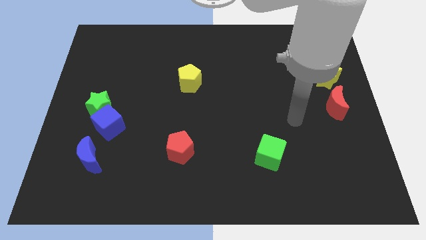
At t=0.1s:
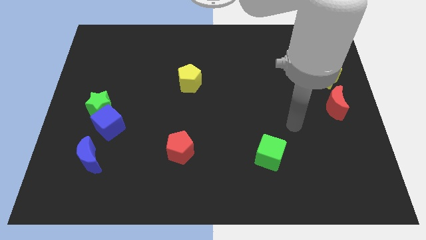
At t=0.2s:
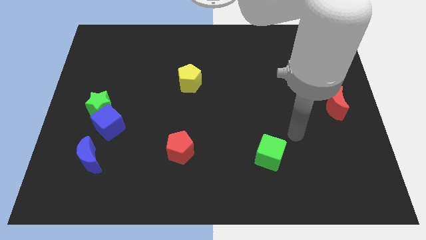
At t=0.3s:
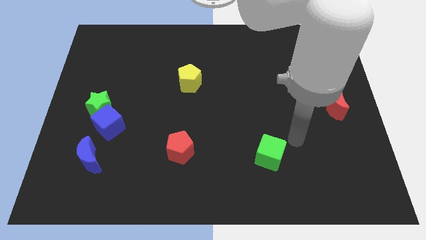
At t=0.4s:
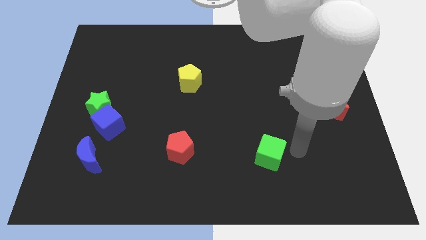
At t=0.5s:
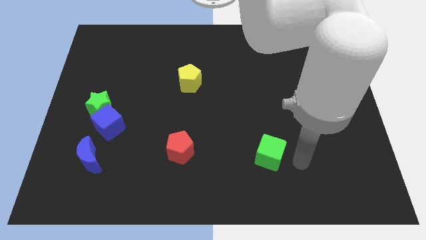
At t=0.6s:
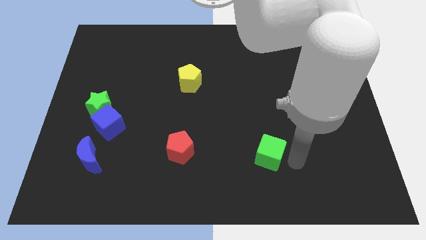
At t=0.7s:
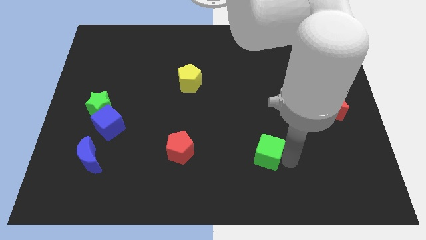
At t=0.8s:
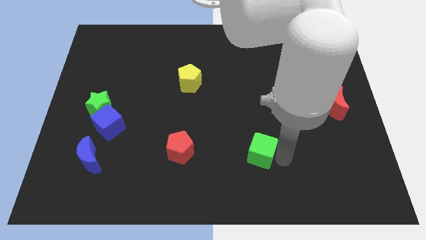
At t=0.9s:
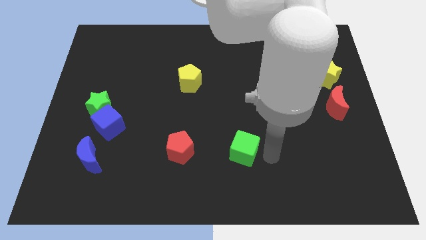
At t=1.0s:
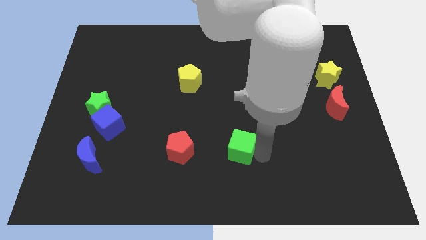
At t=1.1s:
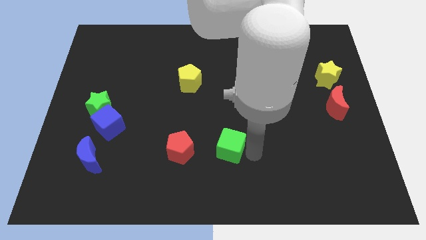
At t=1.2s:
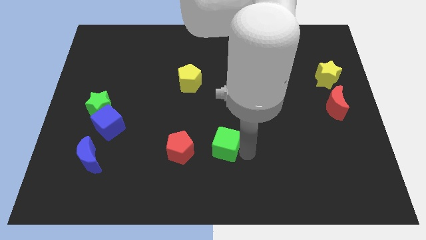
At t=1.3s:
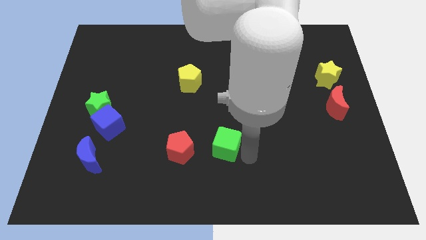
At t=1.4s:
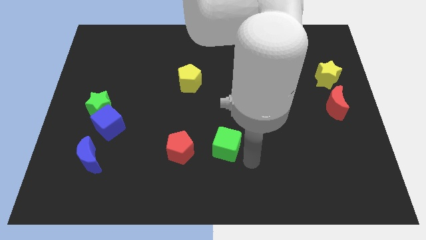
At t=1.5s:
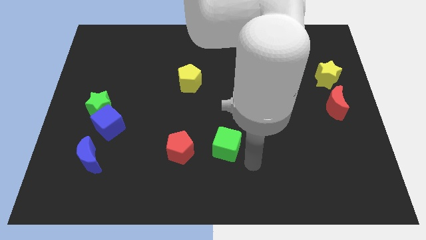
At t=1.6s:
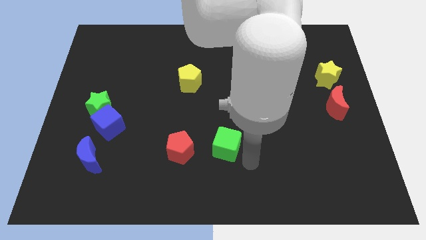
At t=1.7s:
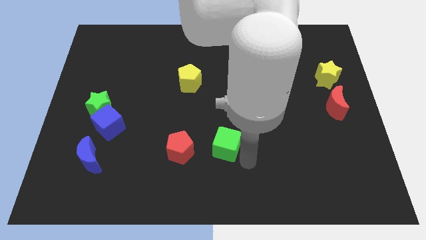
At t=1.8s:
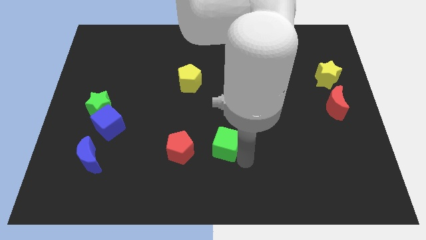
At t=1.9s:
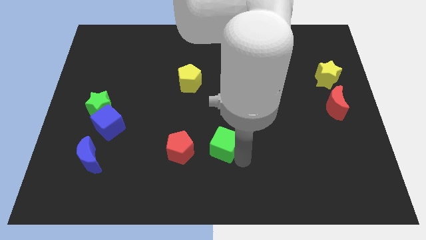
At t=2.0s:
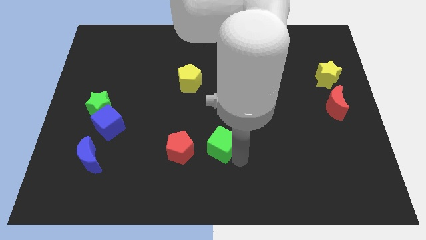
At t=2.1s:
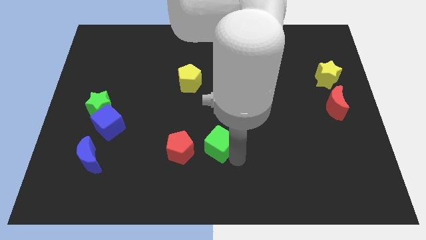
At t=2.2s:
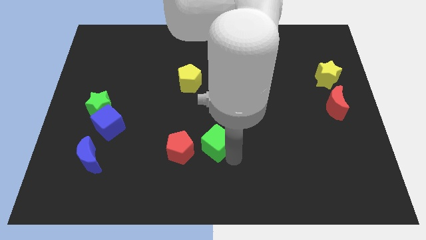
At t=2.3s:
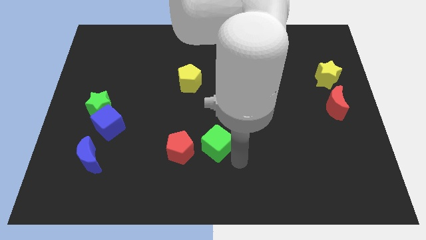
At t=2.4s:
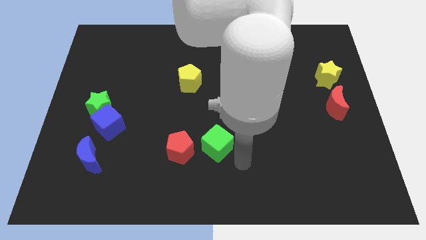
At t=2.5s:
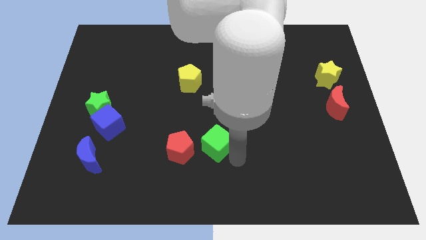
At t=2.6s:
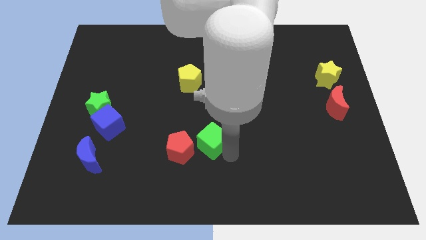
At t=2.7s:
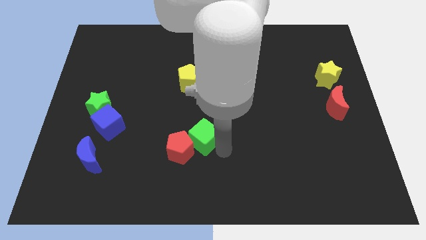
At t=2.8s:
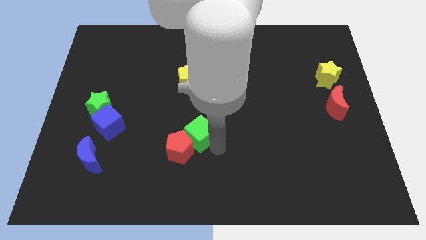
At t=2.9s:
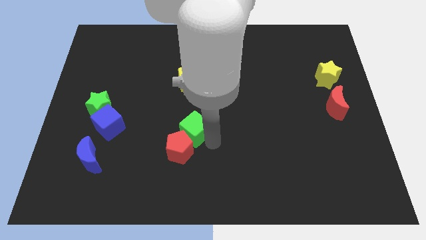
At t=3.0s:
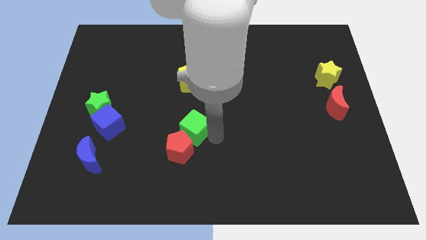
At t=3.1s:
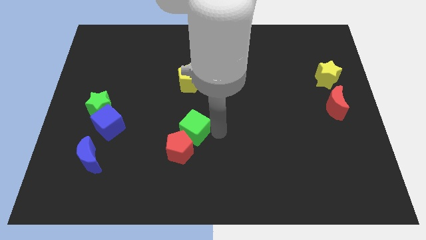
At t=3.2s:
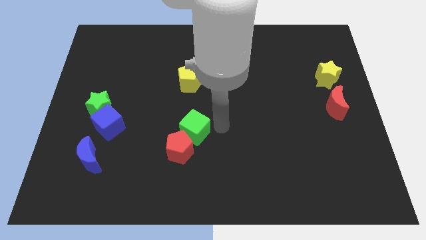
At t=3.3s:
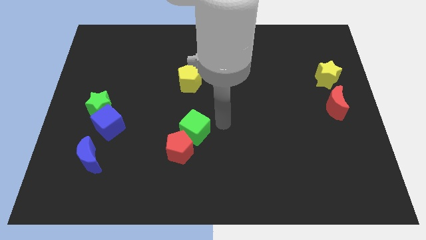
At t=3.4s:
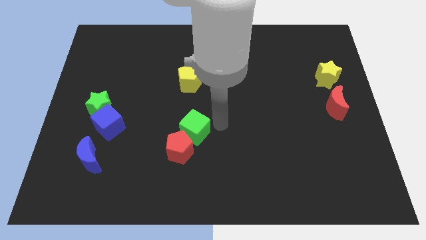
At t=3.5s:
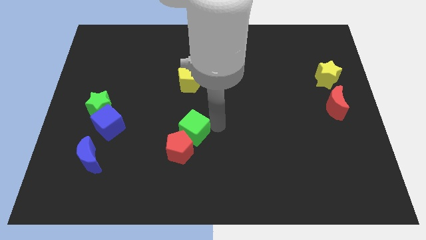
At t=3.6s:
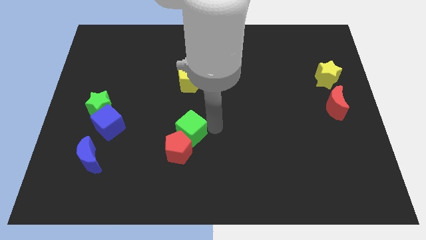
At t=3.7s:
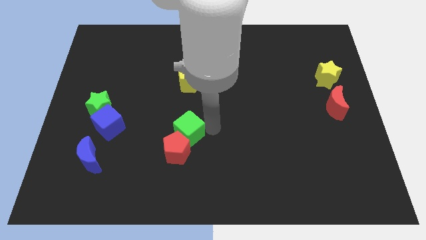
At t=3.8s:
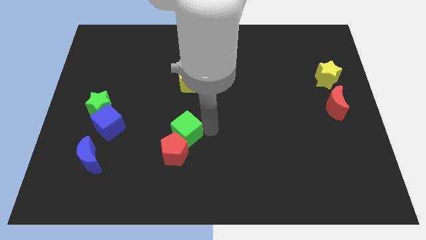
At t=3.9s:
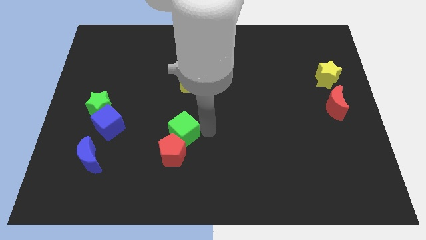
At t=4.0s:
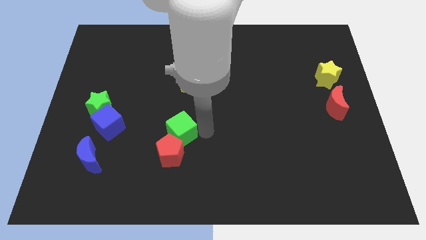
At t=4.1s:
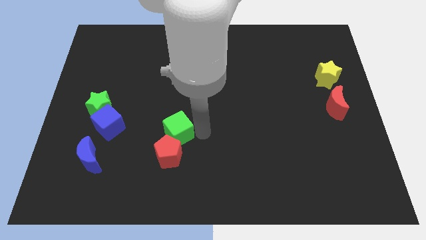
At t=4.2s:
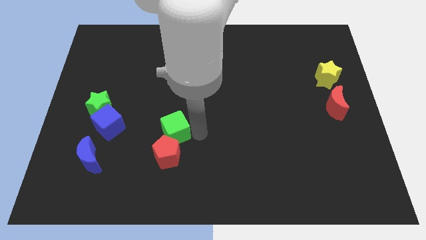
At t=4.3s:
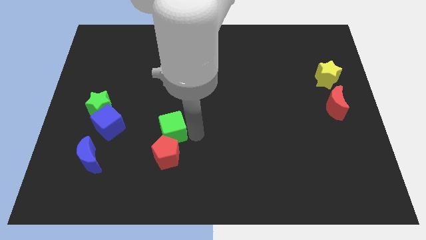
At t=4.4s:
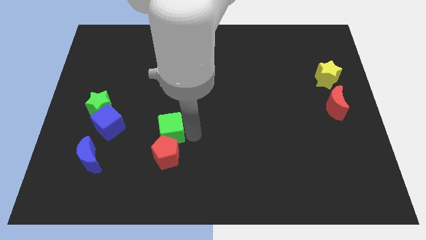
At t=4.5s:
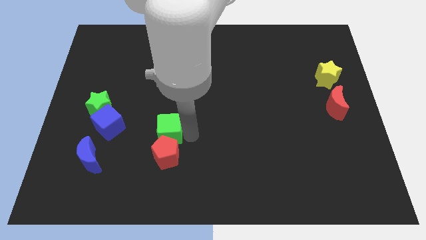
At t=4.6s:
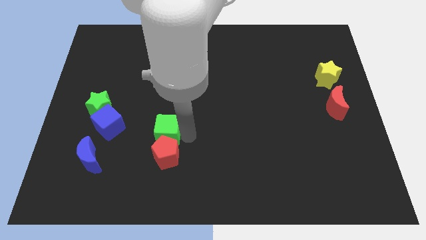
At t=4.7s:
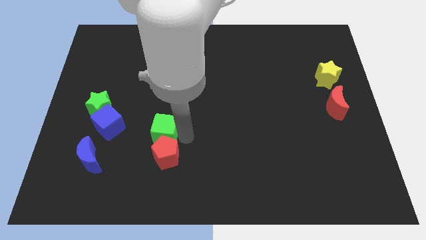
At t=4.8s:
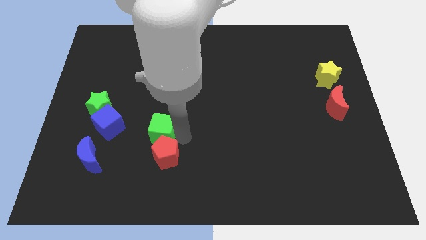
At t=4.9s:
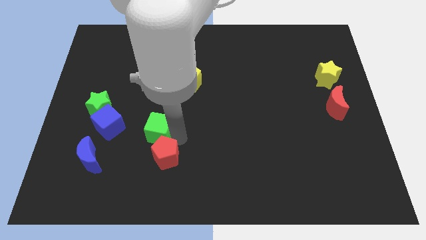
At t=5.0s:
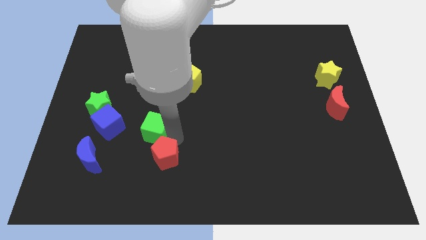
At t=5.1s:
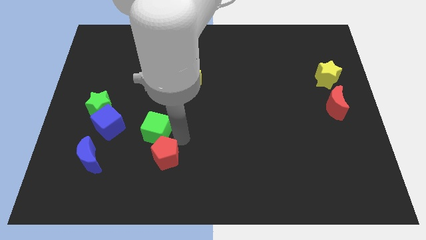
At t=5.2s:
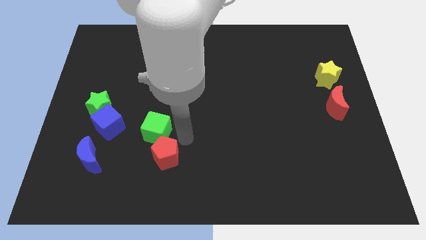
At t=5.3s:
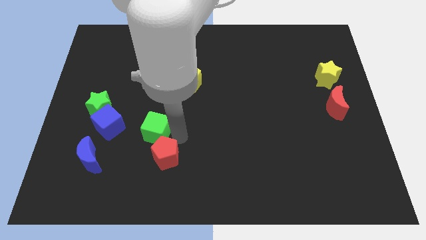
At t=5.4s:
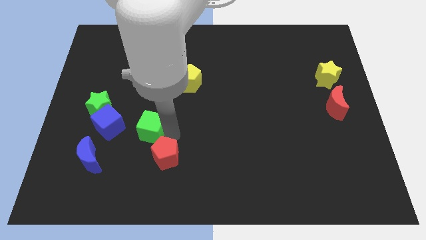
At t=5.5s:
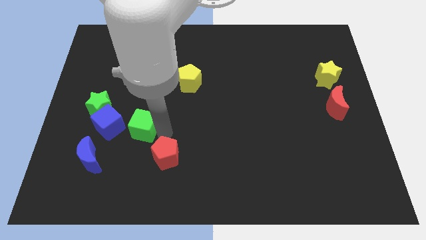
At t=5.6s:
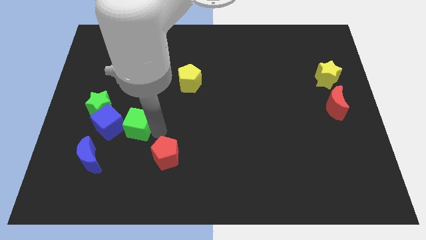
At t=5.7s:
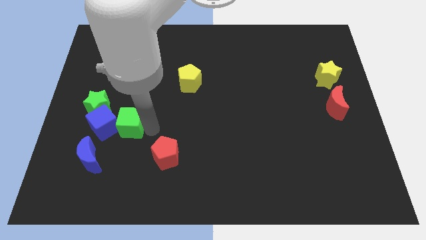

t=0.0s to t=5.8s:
move the green cube close to the blue cube

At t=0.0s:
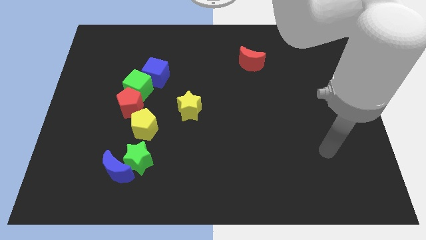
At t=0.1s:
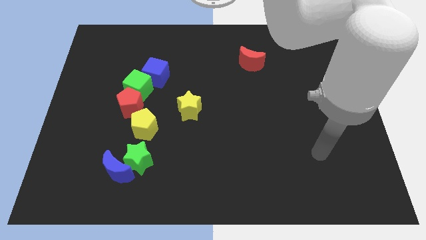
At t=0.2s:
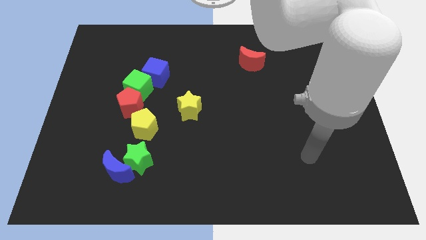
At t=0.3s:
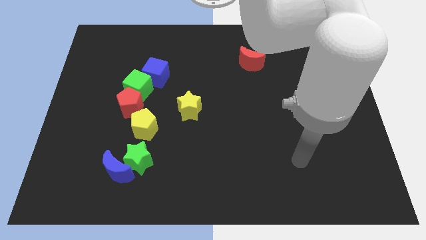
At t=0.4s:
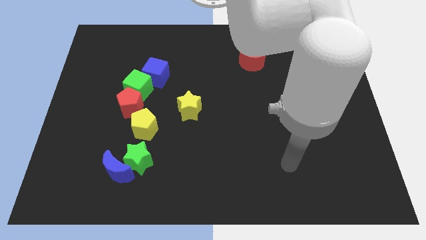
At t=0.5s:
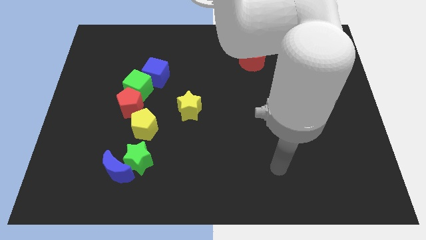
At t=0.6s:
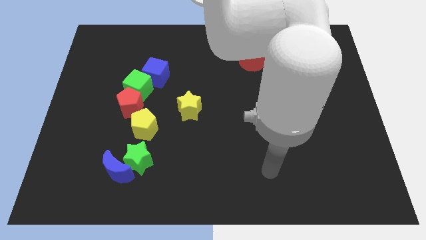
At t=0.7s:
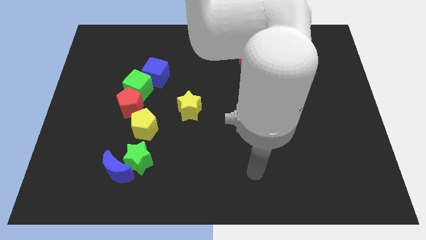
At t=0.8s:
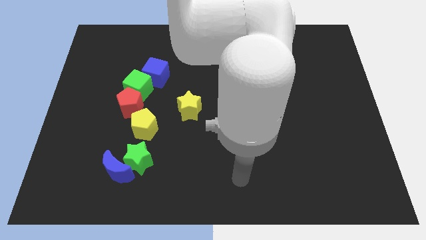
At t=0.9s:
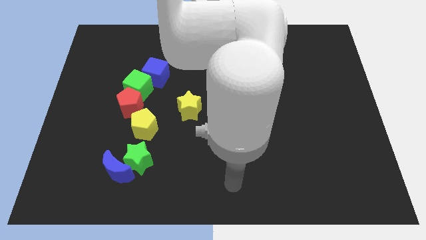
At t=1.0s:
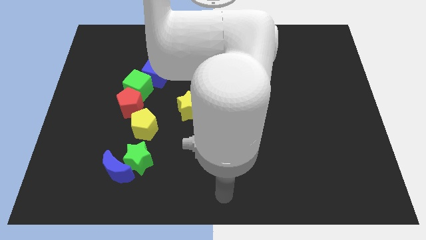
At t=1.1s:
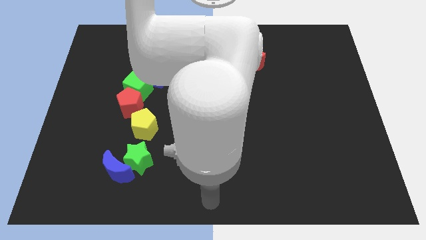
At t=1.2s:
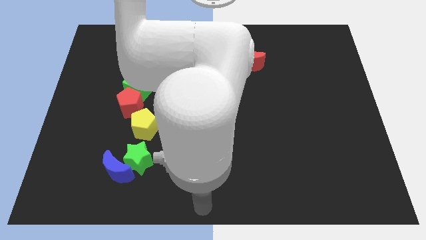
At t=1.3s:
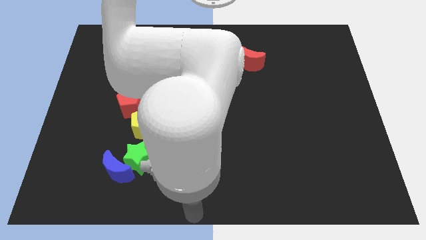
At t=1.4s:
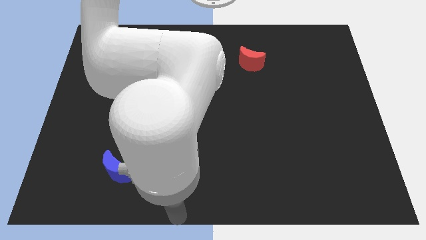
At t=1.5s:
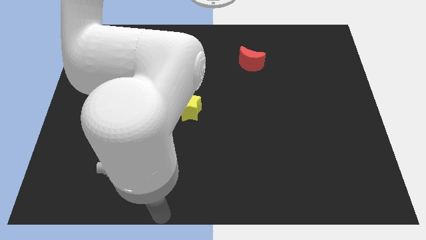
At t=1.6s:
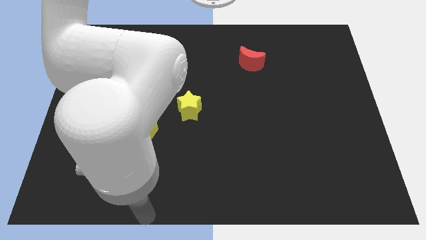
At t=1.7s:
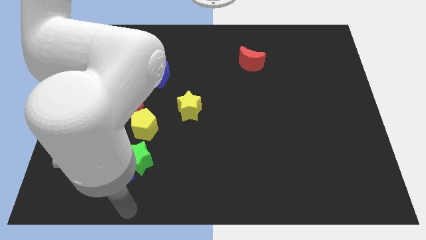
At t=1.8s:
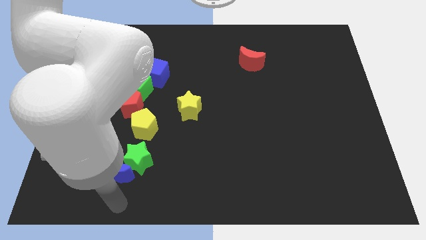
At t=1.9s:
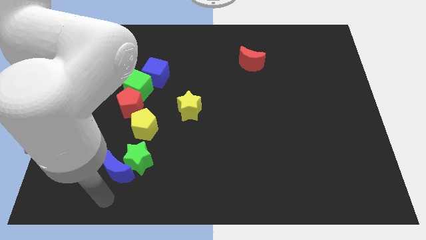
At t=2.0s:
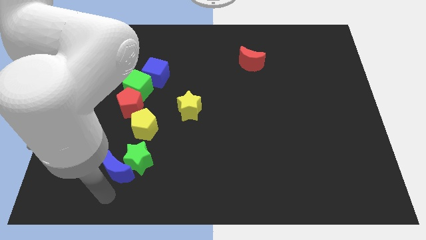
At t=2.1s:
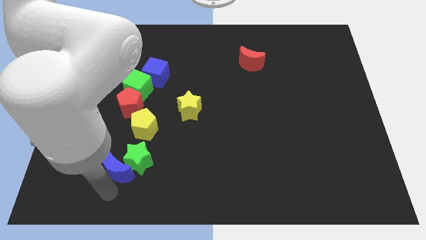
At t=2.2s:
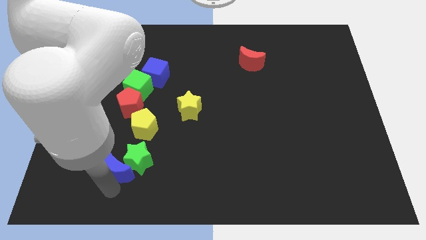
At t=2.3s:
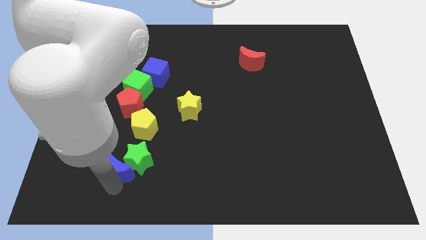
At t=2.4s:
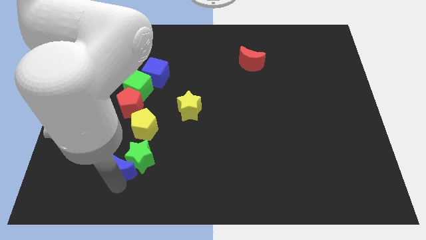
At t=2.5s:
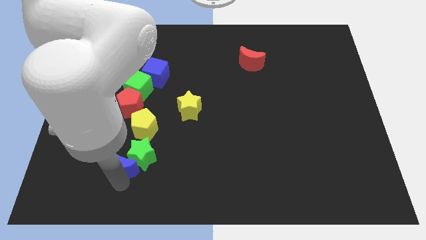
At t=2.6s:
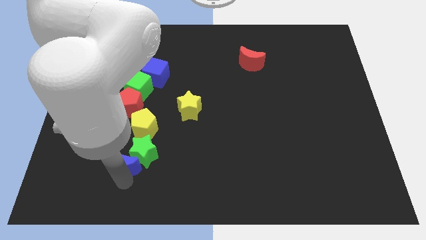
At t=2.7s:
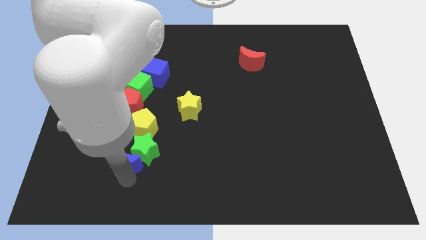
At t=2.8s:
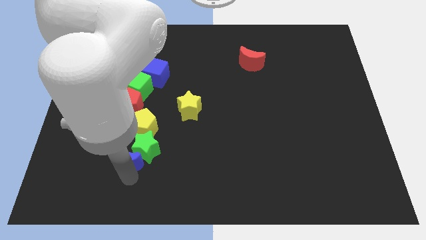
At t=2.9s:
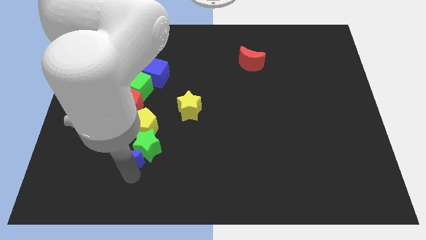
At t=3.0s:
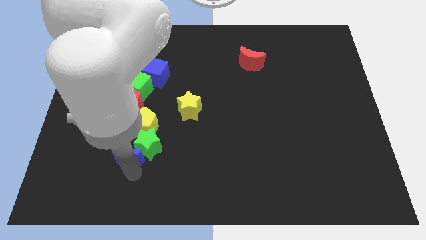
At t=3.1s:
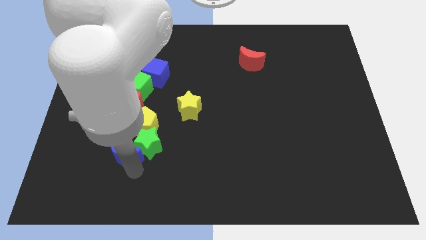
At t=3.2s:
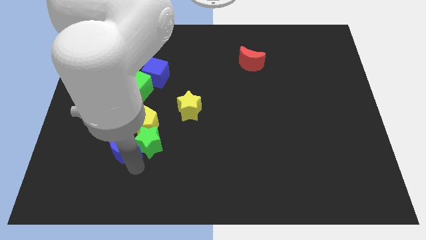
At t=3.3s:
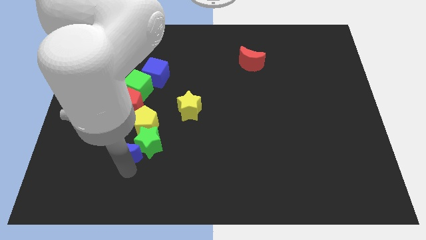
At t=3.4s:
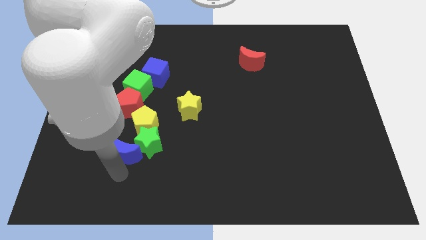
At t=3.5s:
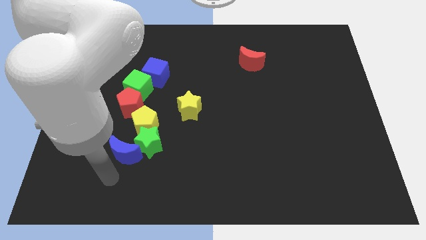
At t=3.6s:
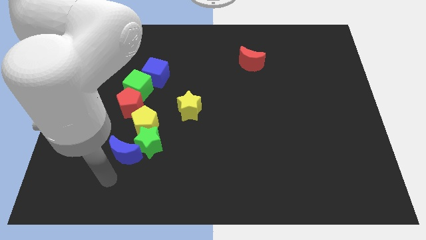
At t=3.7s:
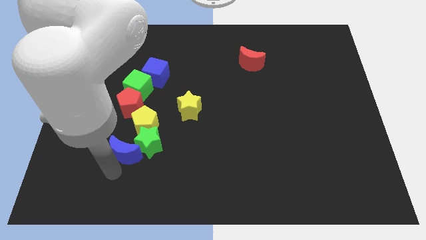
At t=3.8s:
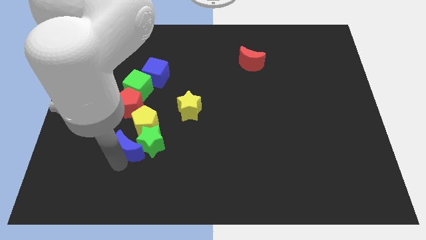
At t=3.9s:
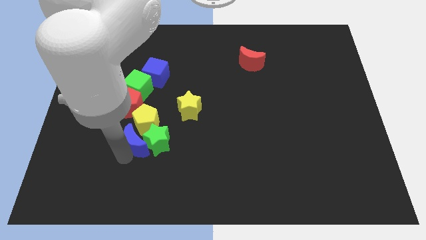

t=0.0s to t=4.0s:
push the blue moon close to the yellow pentagon
